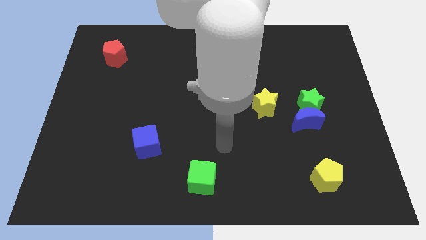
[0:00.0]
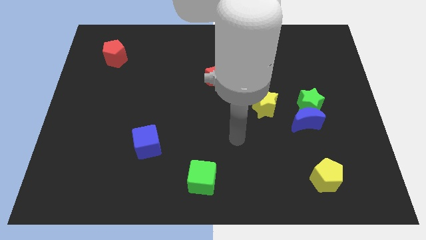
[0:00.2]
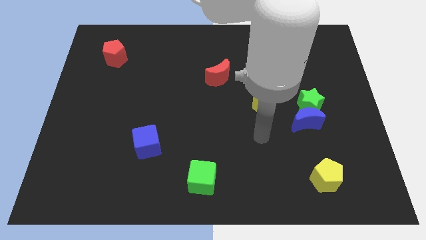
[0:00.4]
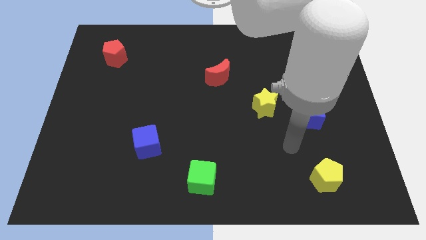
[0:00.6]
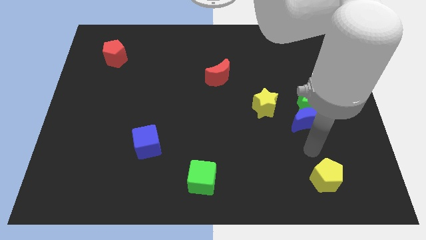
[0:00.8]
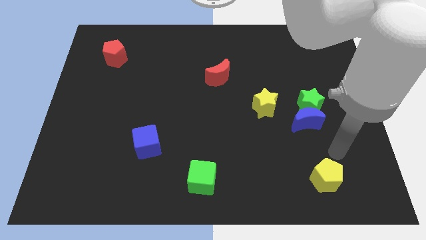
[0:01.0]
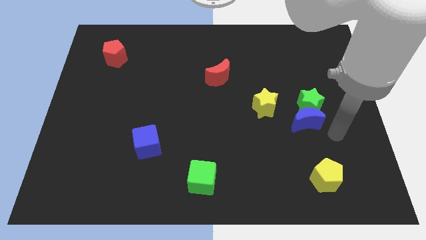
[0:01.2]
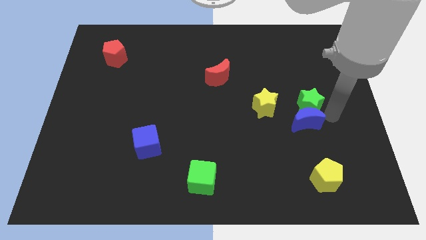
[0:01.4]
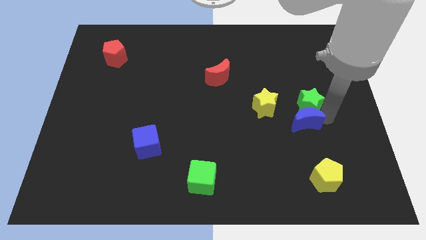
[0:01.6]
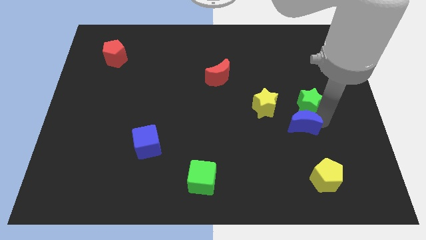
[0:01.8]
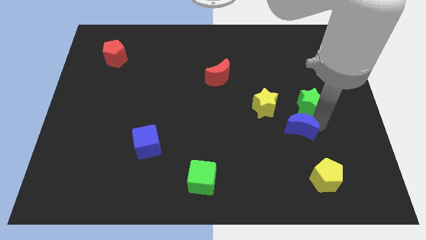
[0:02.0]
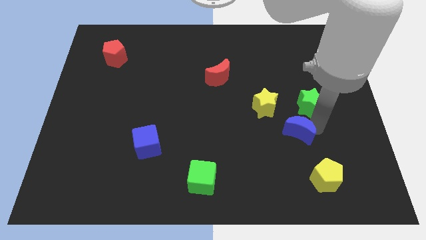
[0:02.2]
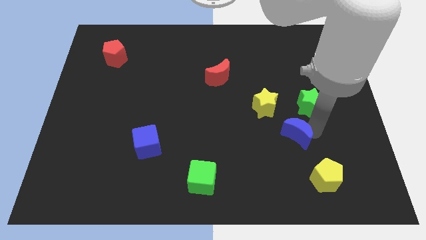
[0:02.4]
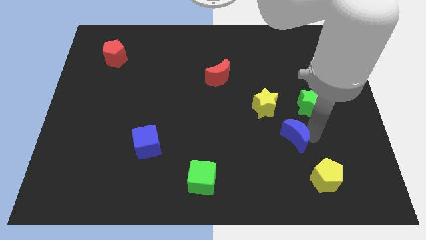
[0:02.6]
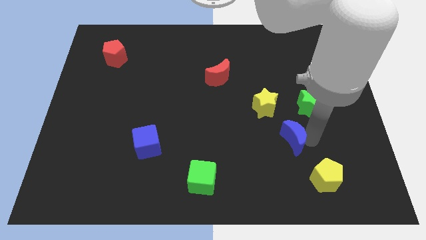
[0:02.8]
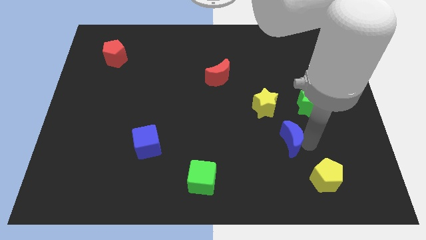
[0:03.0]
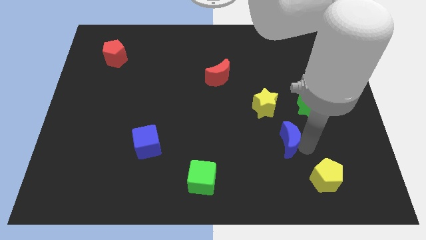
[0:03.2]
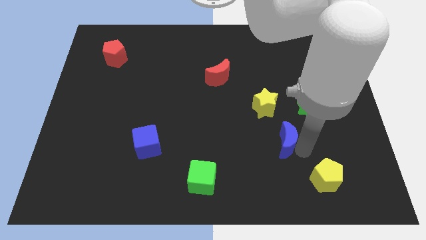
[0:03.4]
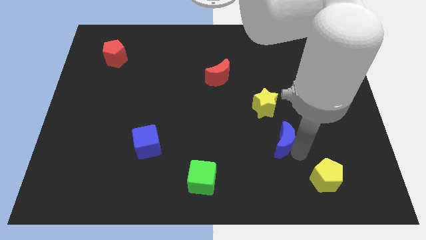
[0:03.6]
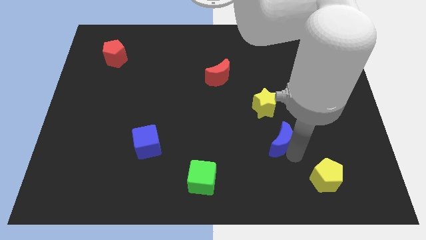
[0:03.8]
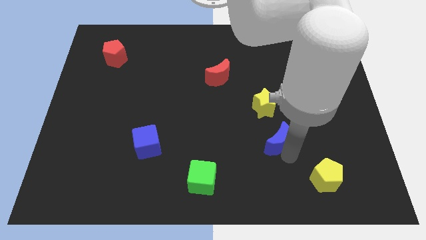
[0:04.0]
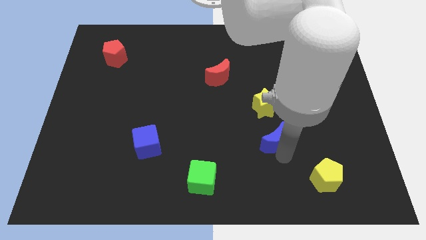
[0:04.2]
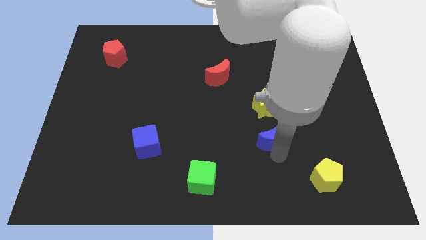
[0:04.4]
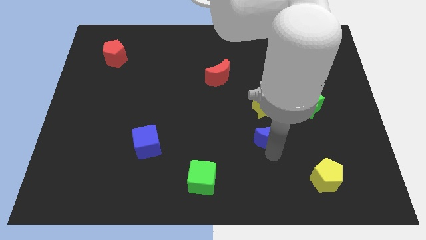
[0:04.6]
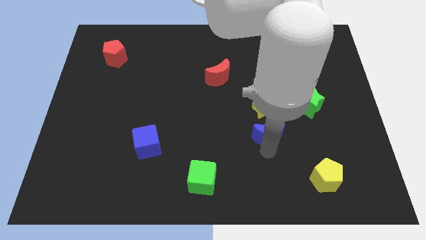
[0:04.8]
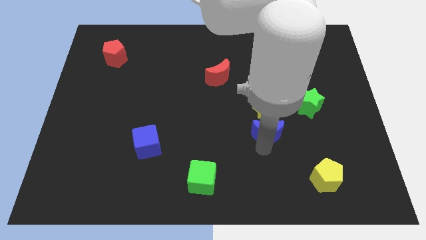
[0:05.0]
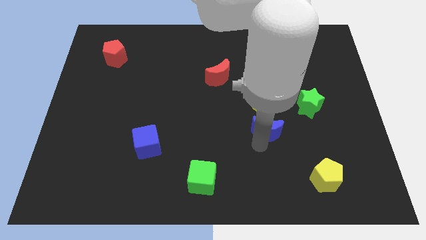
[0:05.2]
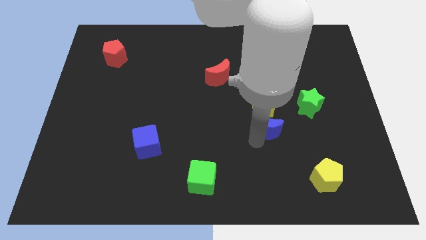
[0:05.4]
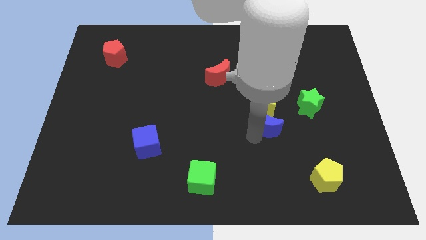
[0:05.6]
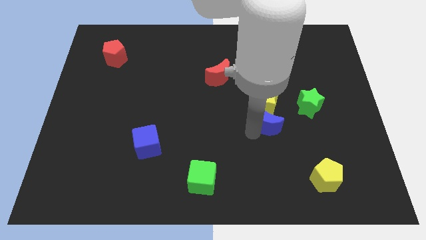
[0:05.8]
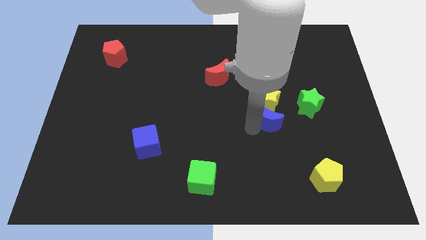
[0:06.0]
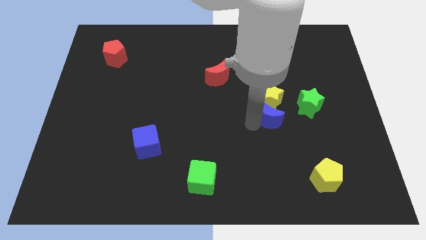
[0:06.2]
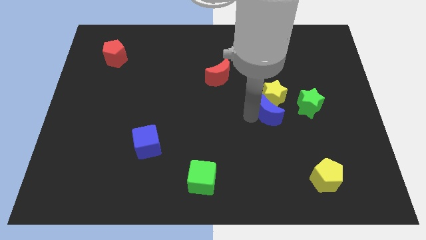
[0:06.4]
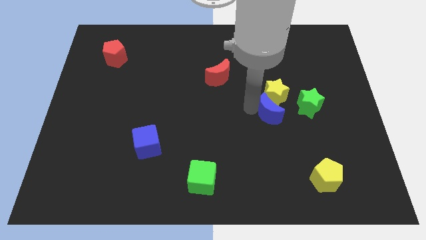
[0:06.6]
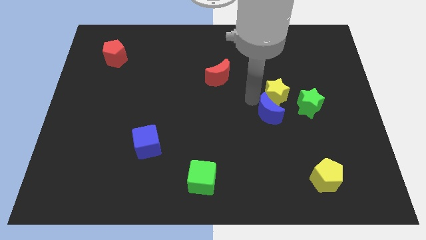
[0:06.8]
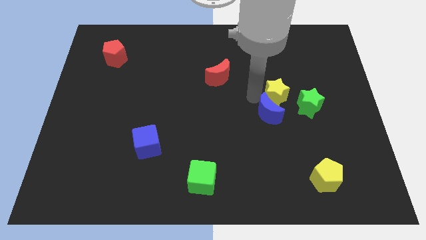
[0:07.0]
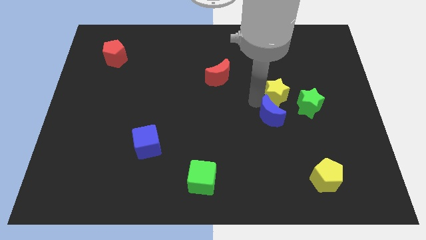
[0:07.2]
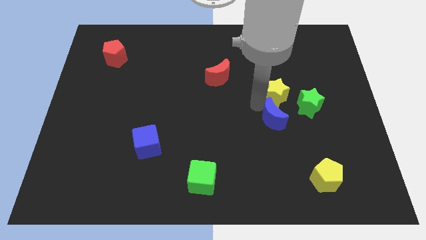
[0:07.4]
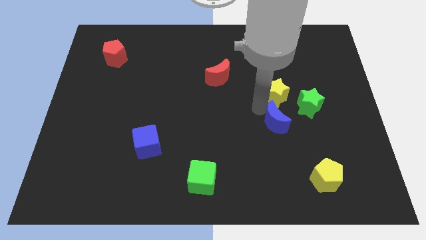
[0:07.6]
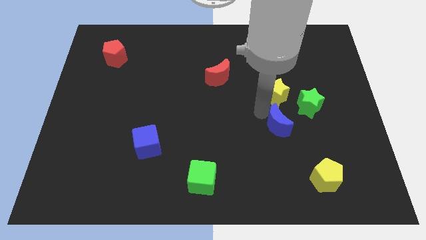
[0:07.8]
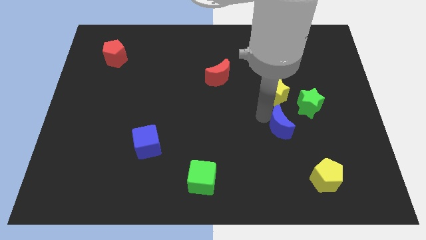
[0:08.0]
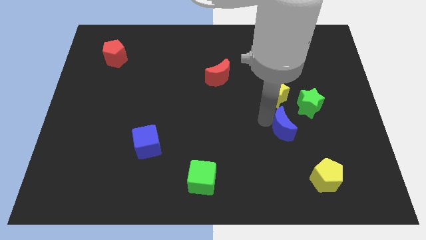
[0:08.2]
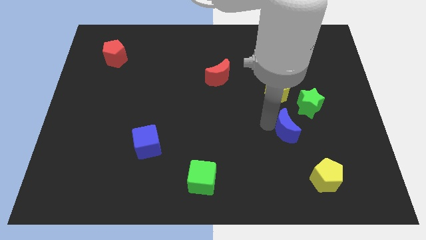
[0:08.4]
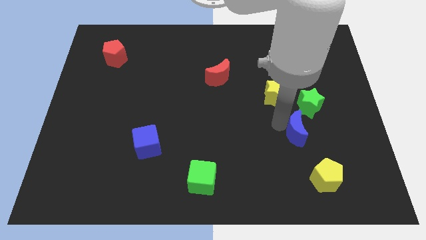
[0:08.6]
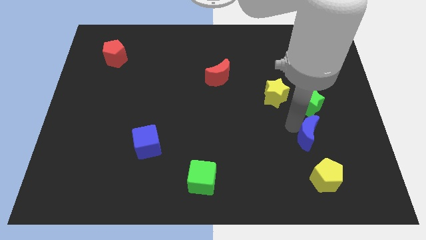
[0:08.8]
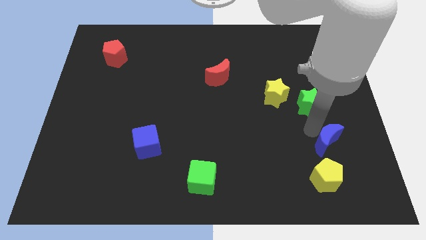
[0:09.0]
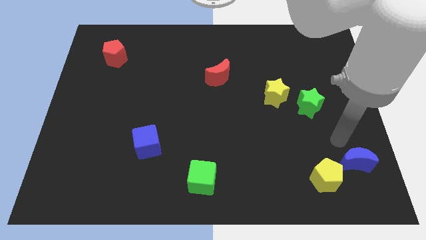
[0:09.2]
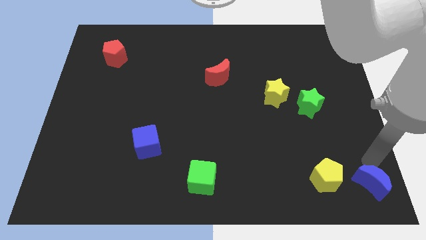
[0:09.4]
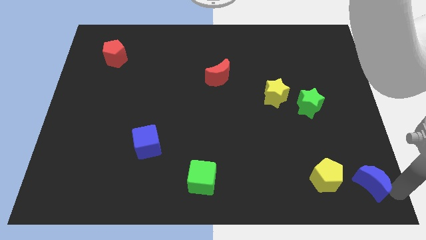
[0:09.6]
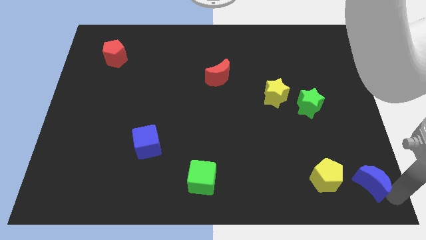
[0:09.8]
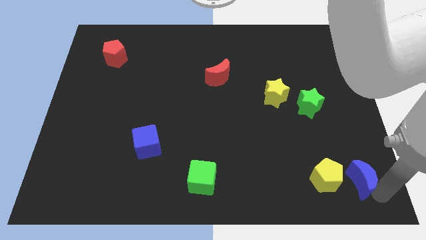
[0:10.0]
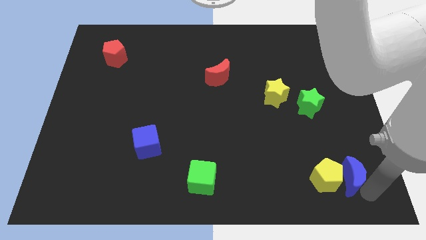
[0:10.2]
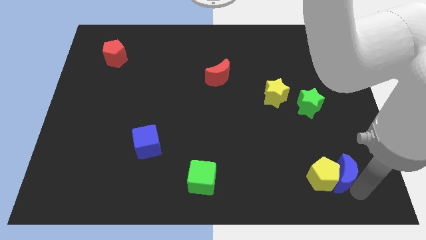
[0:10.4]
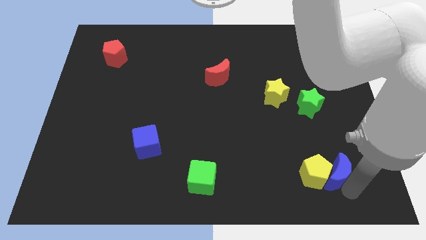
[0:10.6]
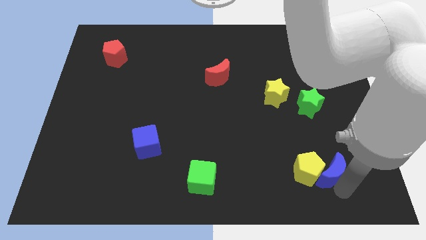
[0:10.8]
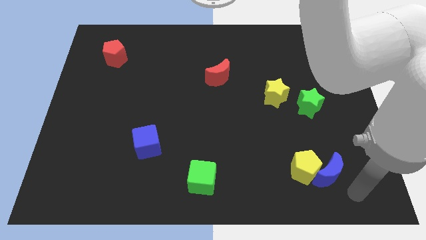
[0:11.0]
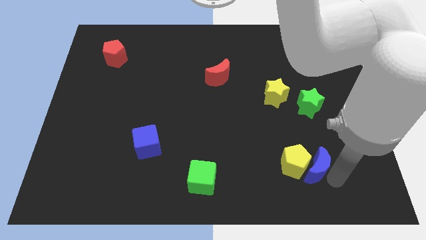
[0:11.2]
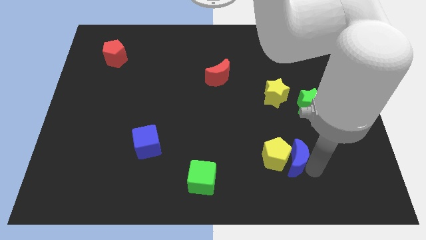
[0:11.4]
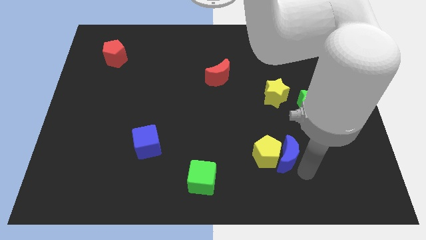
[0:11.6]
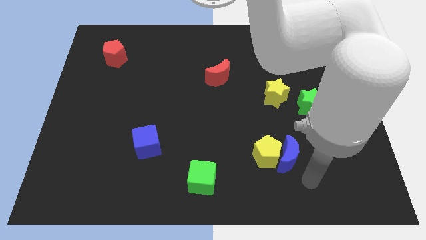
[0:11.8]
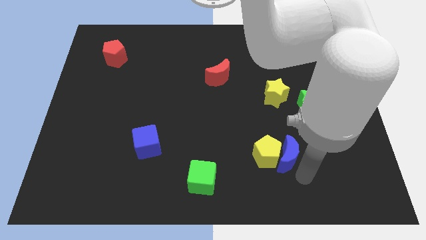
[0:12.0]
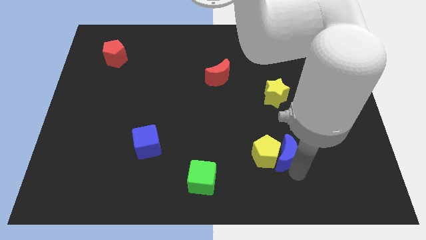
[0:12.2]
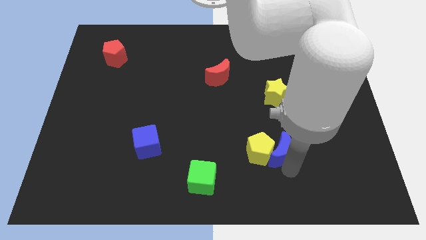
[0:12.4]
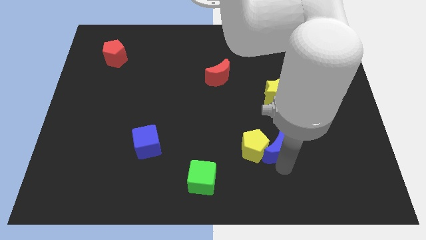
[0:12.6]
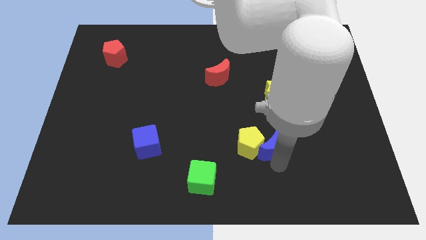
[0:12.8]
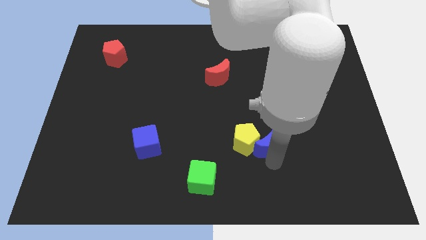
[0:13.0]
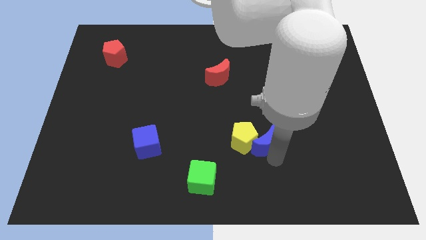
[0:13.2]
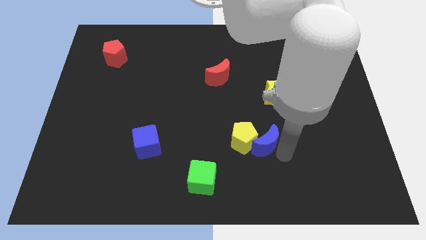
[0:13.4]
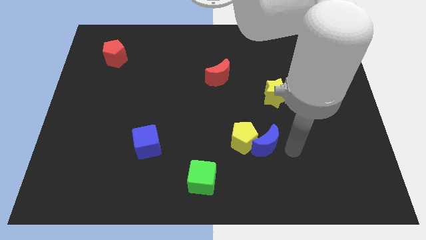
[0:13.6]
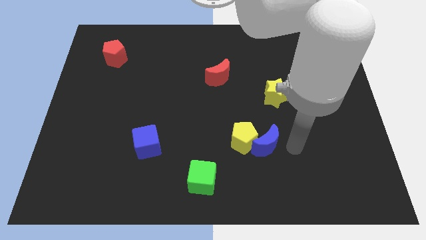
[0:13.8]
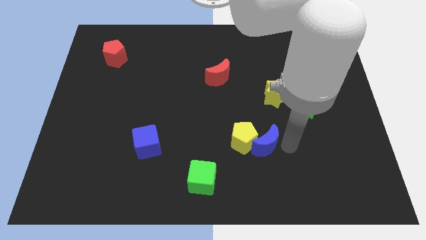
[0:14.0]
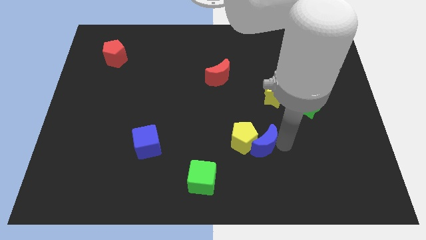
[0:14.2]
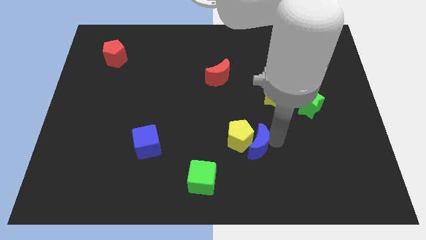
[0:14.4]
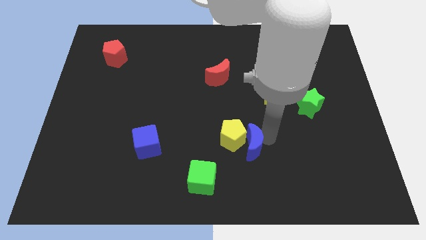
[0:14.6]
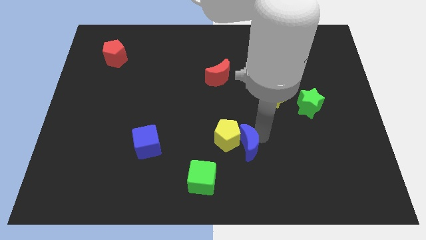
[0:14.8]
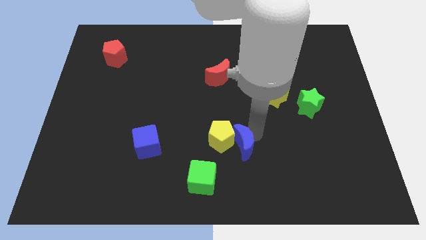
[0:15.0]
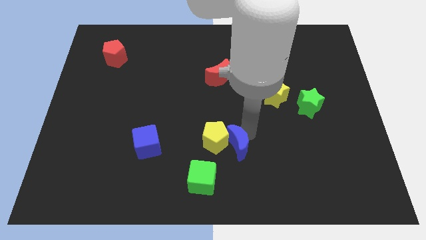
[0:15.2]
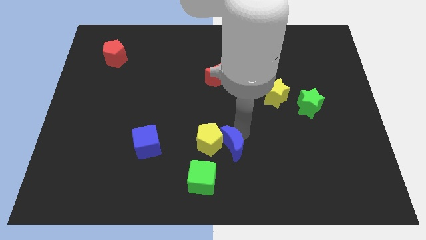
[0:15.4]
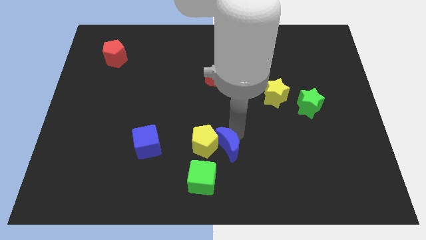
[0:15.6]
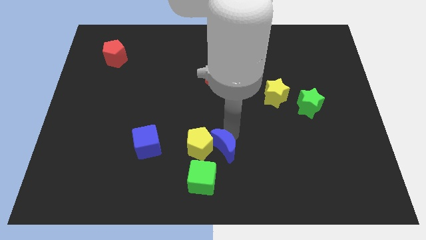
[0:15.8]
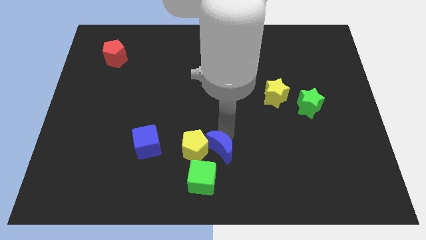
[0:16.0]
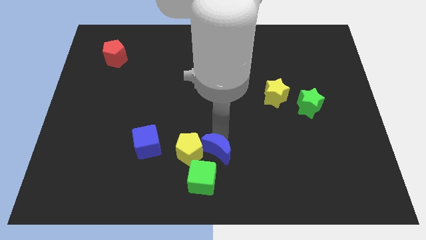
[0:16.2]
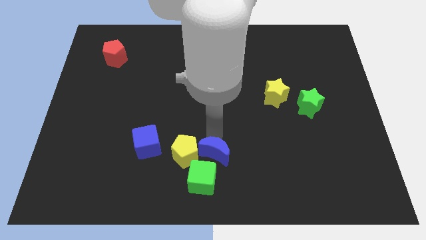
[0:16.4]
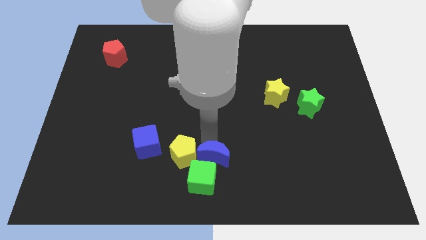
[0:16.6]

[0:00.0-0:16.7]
push the blue moon to the green cube
